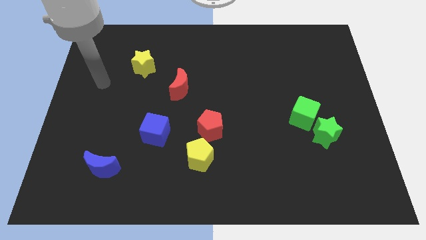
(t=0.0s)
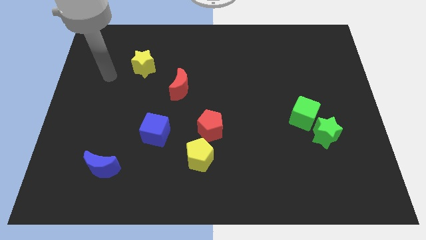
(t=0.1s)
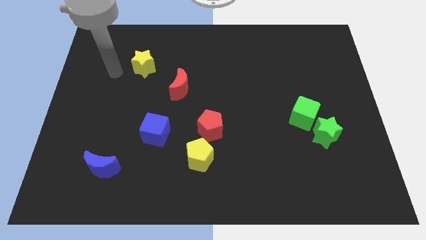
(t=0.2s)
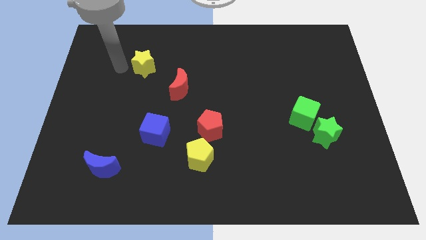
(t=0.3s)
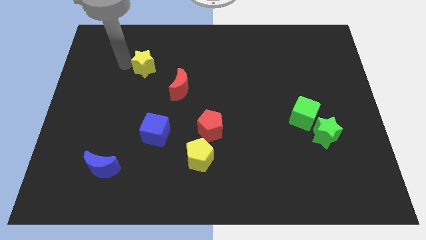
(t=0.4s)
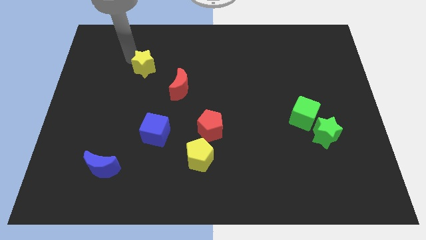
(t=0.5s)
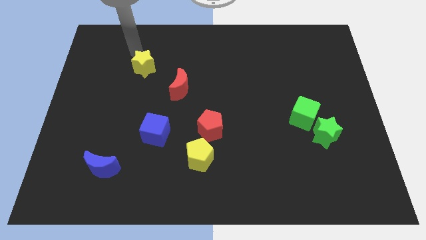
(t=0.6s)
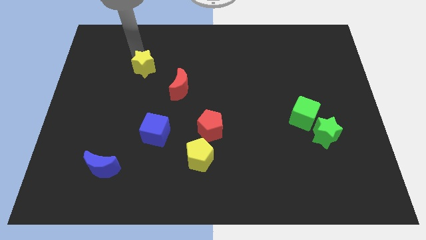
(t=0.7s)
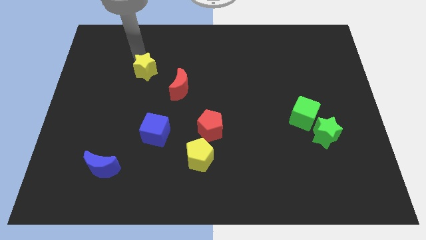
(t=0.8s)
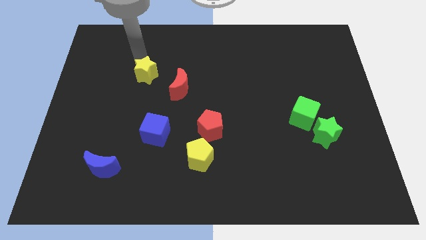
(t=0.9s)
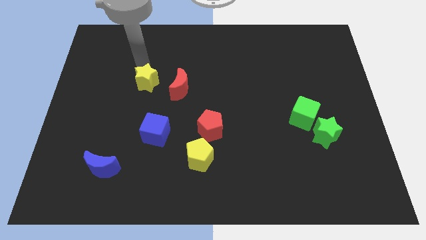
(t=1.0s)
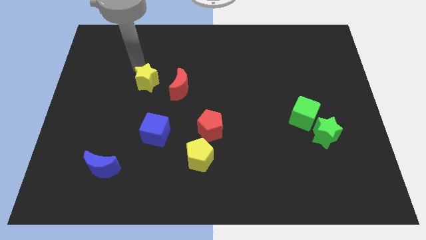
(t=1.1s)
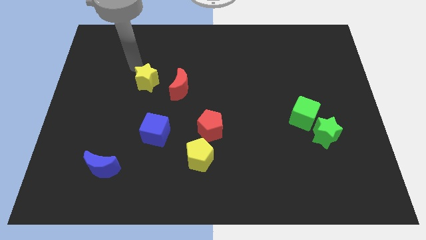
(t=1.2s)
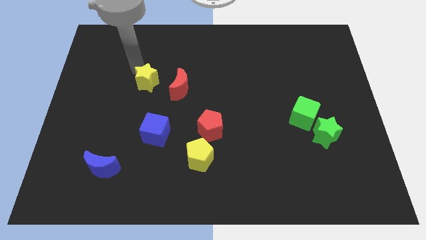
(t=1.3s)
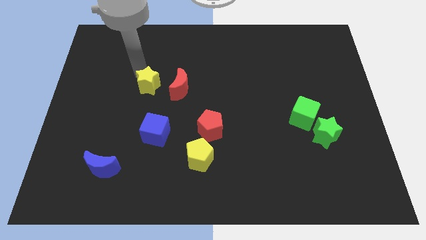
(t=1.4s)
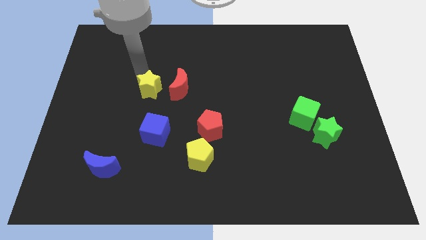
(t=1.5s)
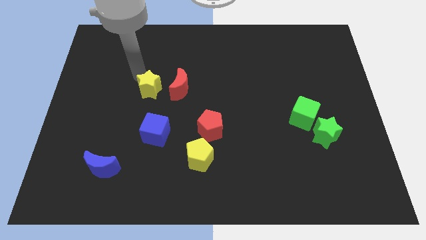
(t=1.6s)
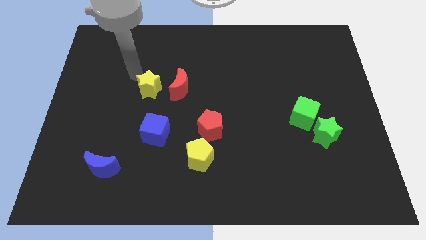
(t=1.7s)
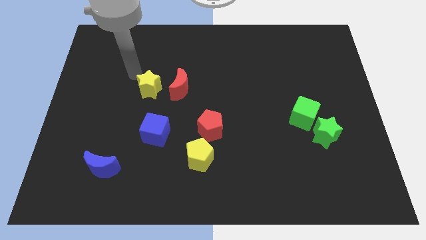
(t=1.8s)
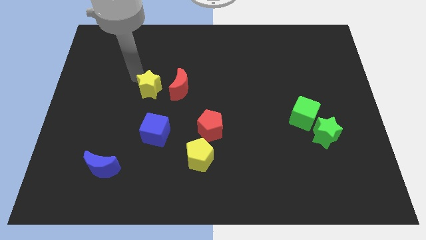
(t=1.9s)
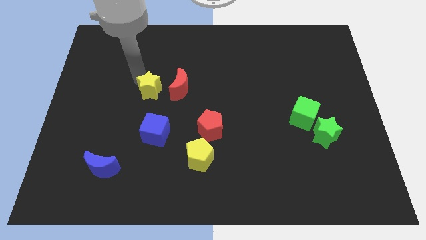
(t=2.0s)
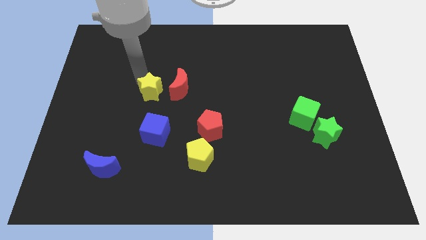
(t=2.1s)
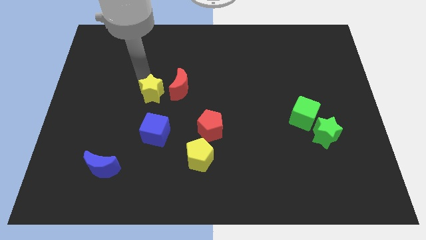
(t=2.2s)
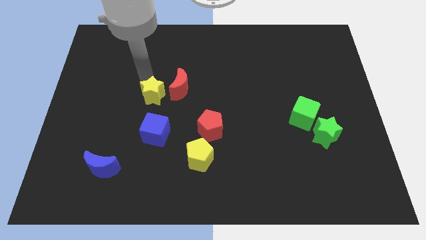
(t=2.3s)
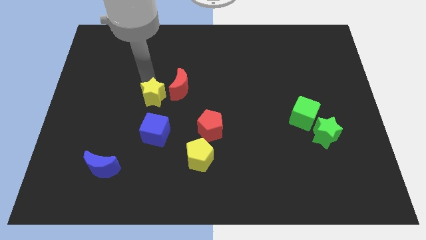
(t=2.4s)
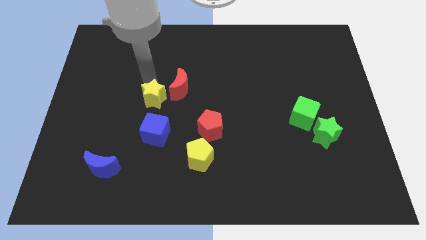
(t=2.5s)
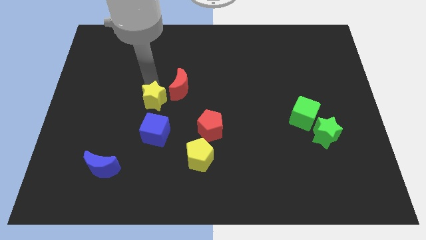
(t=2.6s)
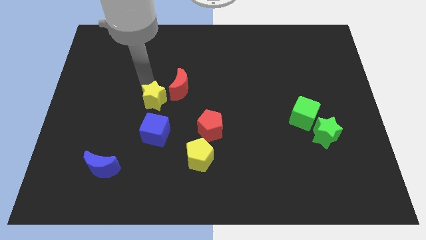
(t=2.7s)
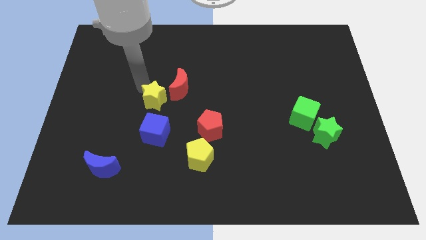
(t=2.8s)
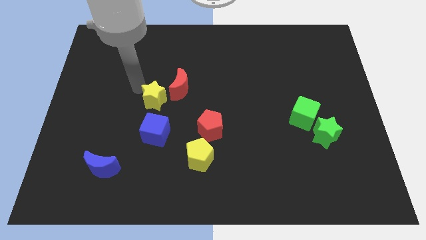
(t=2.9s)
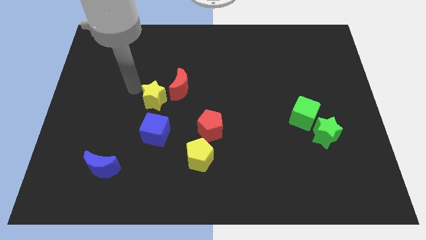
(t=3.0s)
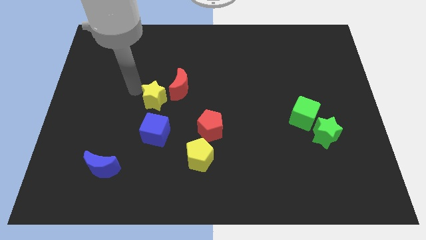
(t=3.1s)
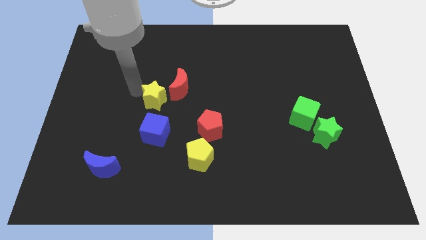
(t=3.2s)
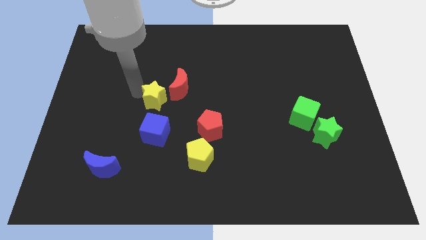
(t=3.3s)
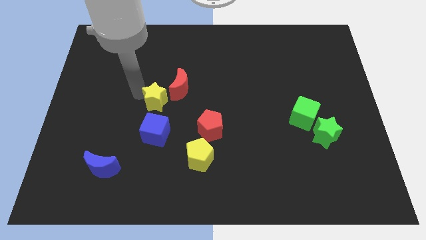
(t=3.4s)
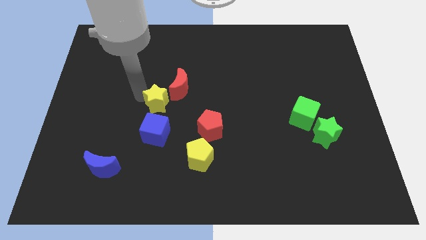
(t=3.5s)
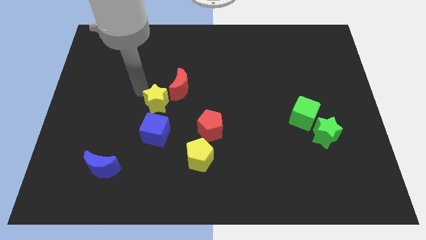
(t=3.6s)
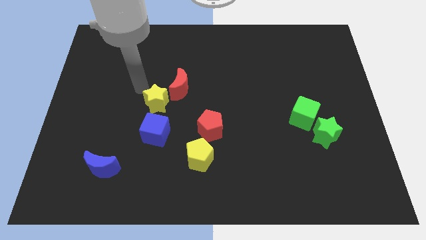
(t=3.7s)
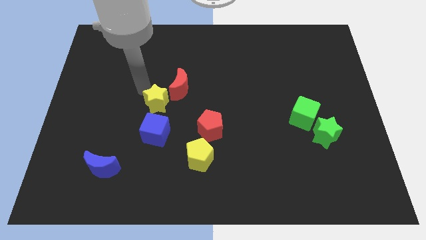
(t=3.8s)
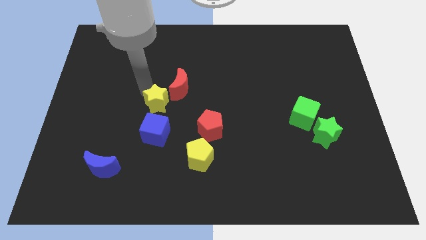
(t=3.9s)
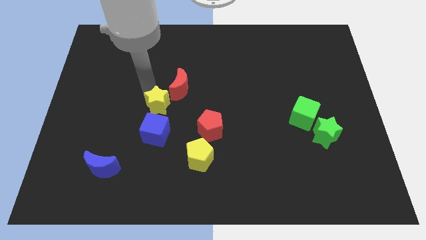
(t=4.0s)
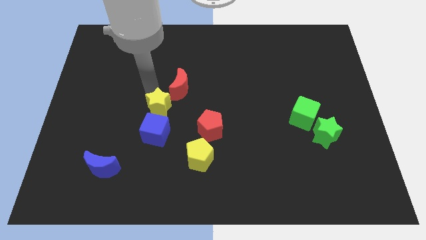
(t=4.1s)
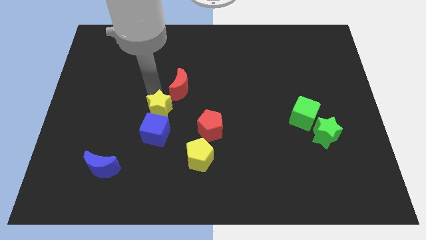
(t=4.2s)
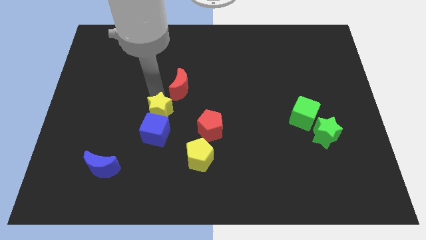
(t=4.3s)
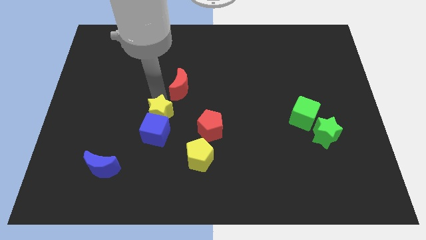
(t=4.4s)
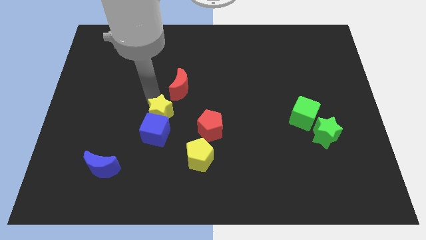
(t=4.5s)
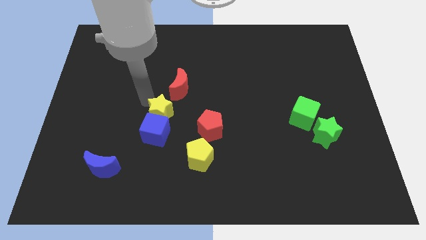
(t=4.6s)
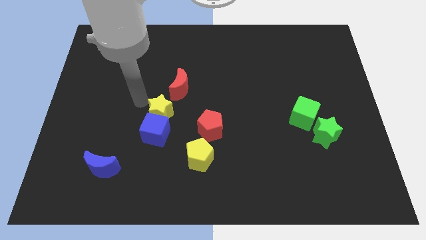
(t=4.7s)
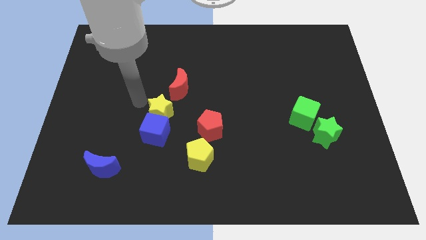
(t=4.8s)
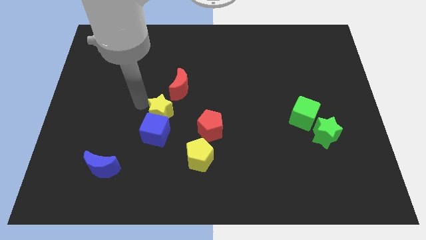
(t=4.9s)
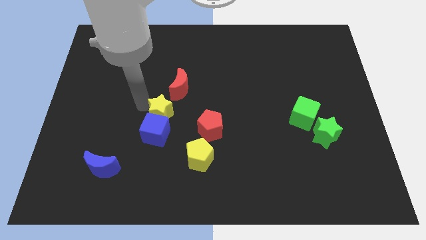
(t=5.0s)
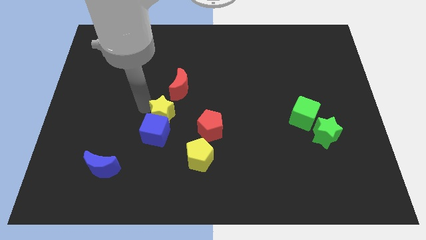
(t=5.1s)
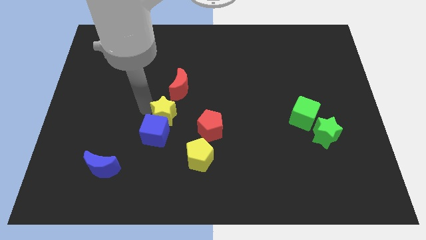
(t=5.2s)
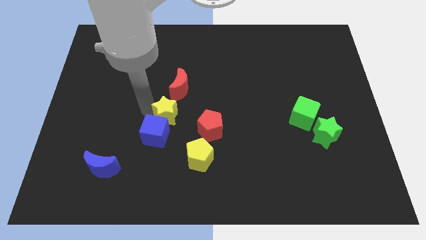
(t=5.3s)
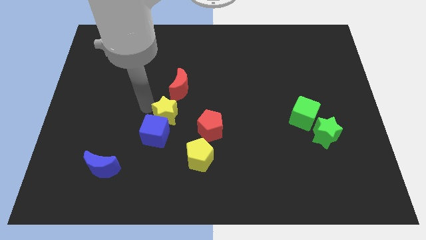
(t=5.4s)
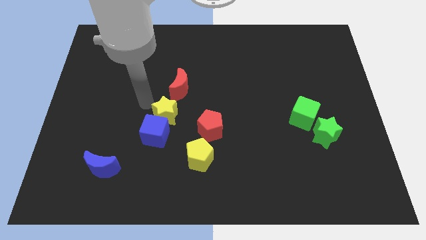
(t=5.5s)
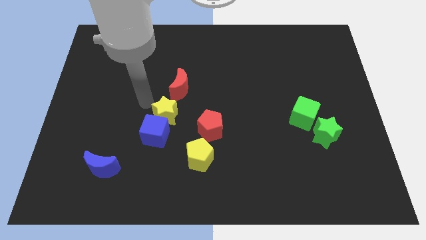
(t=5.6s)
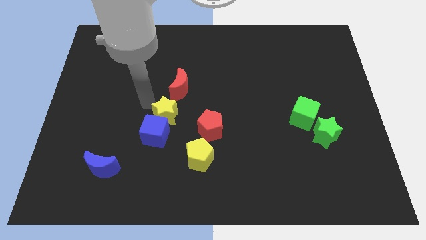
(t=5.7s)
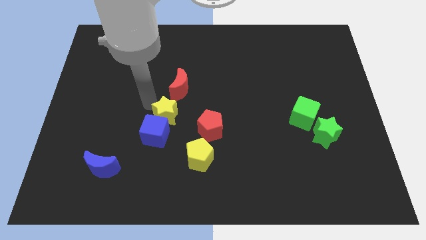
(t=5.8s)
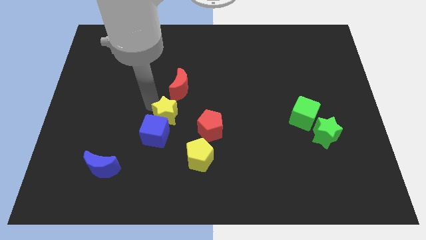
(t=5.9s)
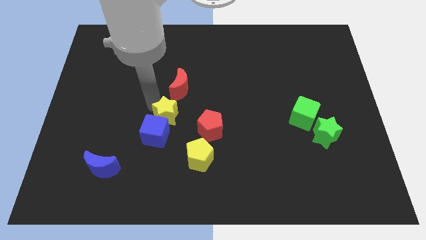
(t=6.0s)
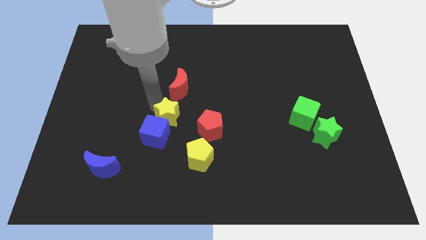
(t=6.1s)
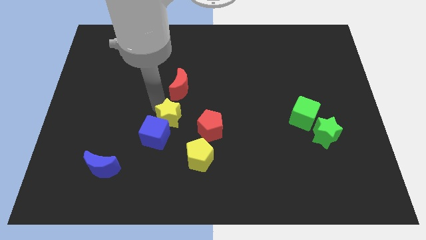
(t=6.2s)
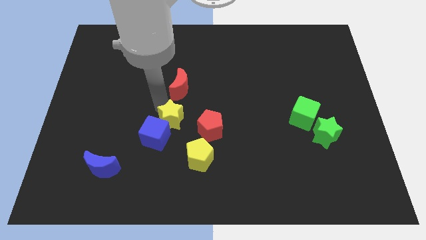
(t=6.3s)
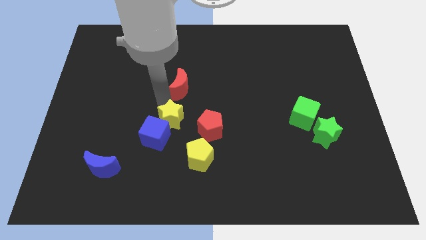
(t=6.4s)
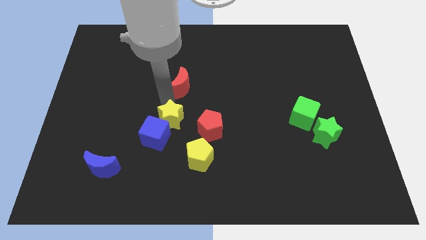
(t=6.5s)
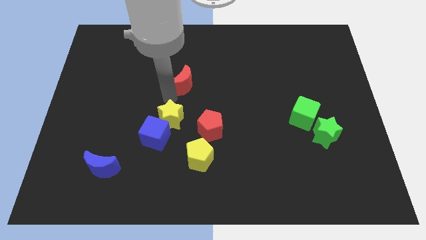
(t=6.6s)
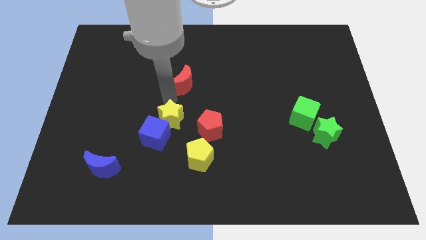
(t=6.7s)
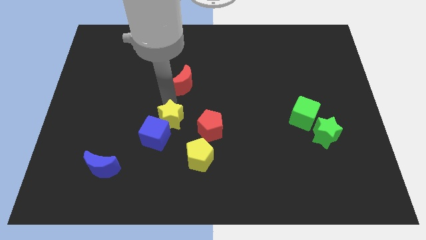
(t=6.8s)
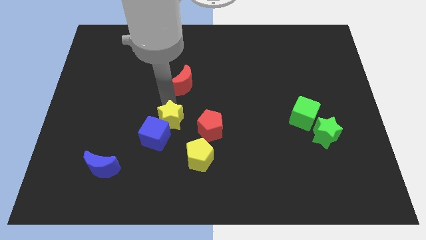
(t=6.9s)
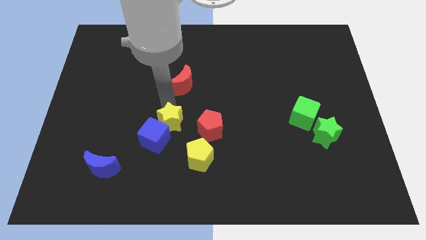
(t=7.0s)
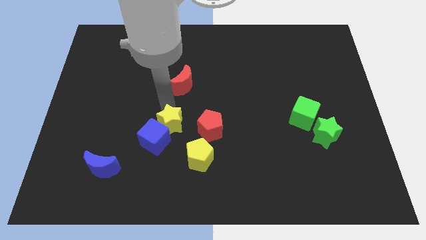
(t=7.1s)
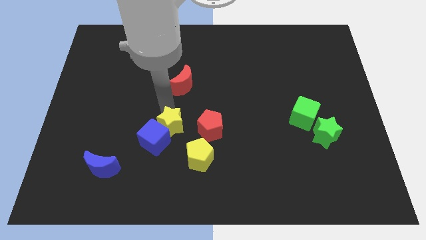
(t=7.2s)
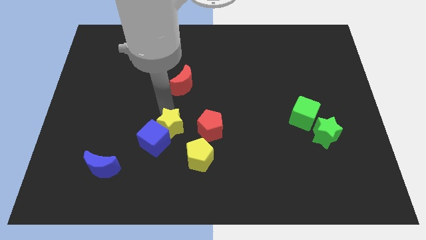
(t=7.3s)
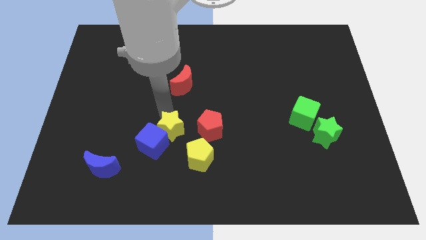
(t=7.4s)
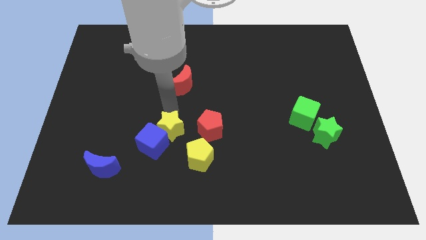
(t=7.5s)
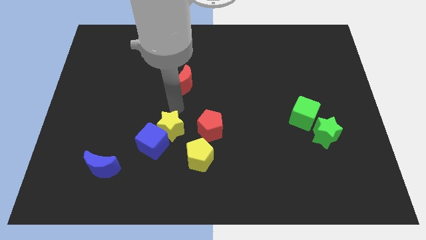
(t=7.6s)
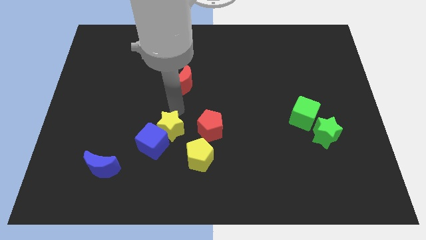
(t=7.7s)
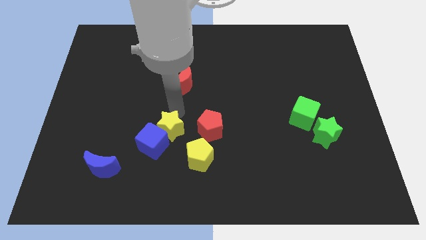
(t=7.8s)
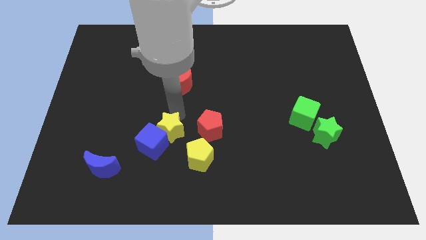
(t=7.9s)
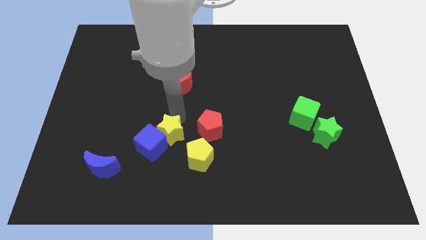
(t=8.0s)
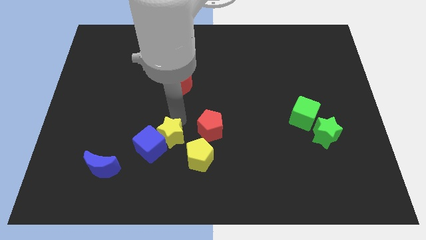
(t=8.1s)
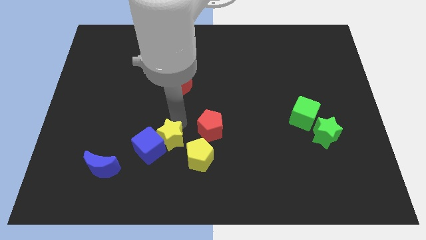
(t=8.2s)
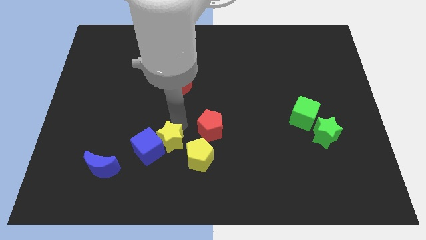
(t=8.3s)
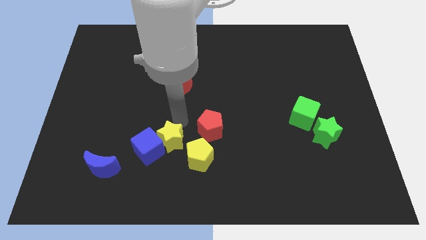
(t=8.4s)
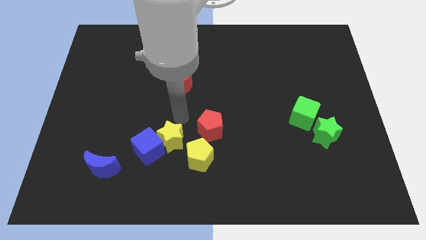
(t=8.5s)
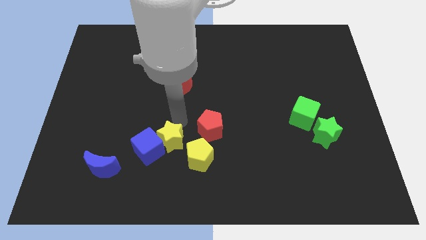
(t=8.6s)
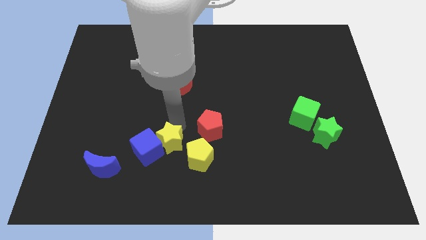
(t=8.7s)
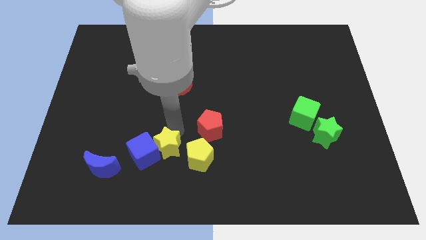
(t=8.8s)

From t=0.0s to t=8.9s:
slide the yellow star downwards
